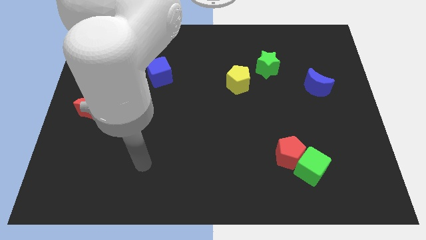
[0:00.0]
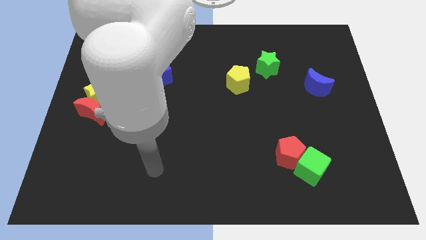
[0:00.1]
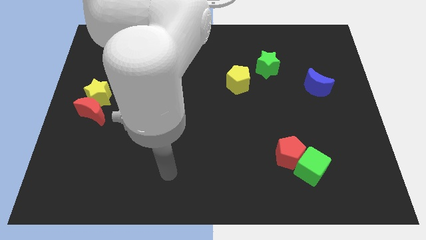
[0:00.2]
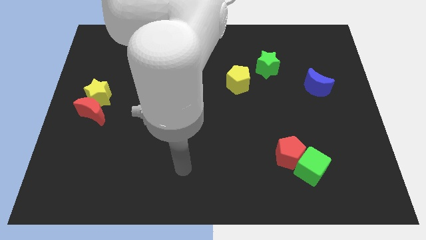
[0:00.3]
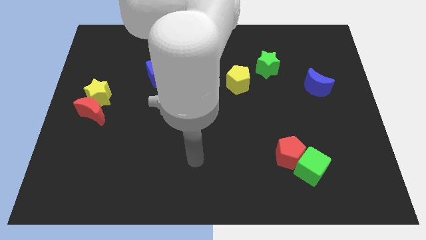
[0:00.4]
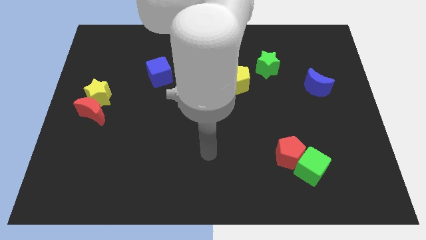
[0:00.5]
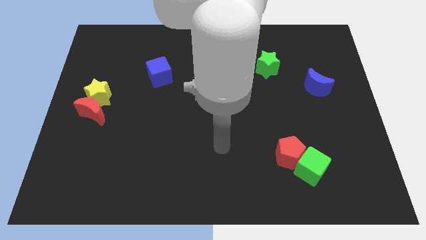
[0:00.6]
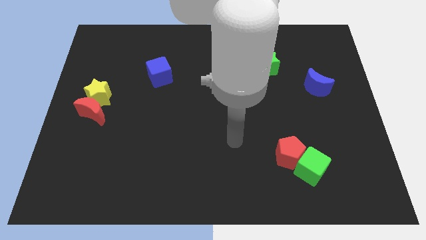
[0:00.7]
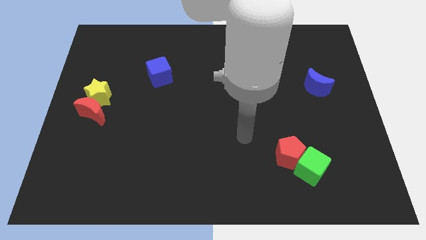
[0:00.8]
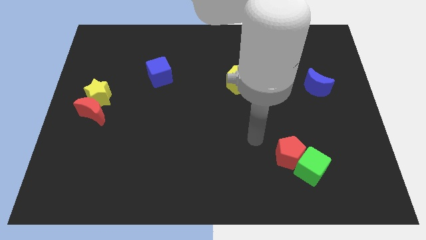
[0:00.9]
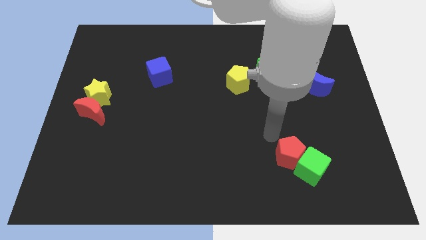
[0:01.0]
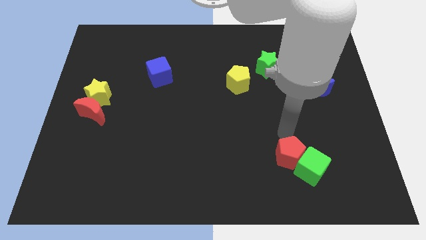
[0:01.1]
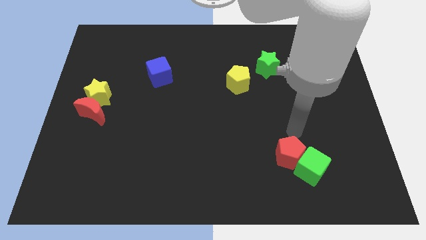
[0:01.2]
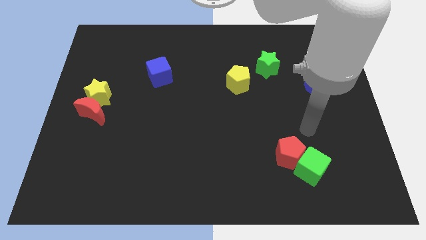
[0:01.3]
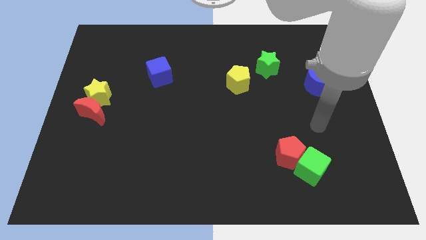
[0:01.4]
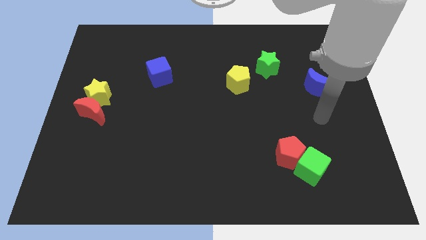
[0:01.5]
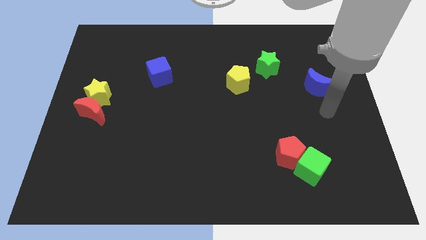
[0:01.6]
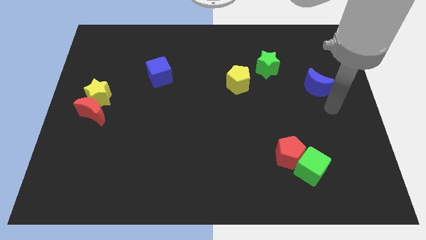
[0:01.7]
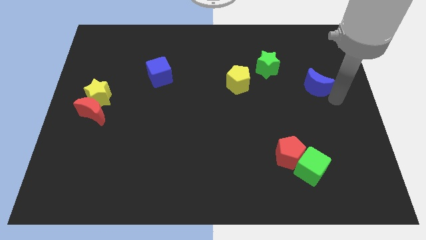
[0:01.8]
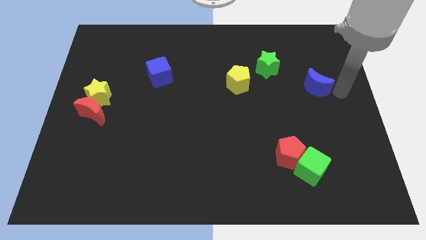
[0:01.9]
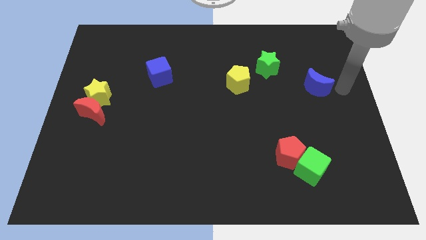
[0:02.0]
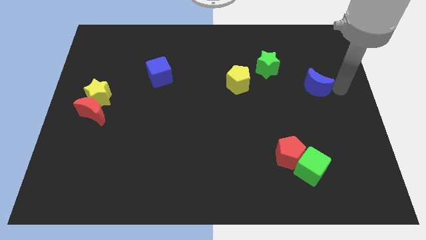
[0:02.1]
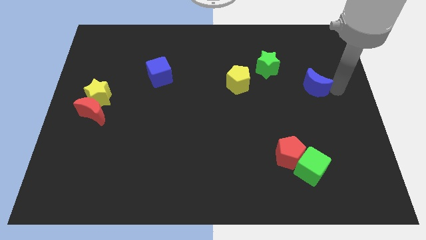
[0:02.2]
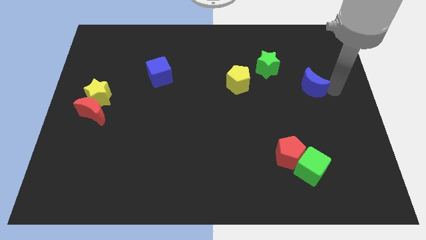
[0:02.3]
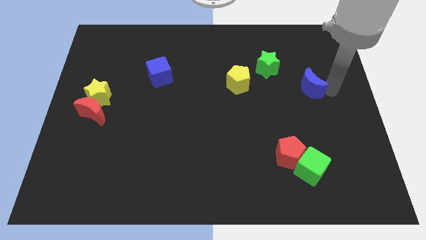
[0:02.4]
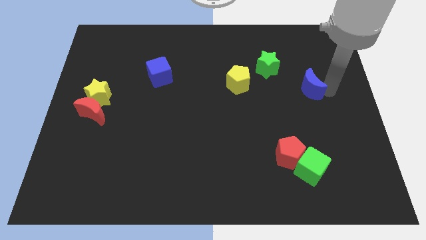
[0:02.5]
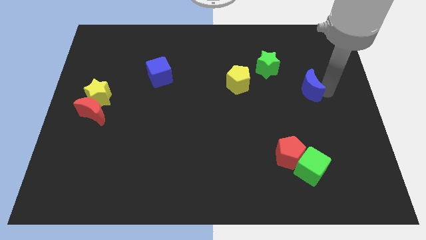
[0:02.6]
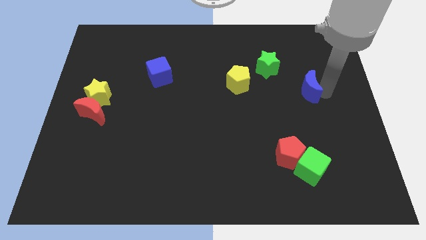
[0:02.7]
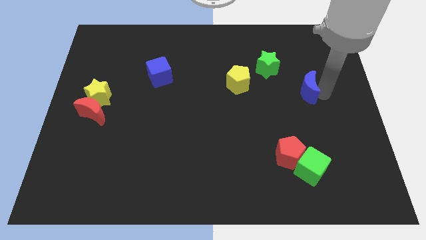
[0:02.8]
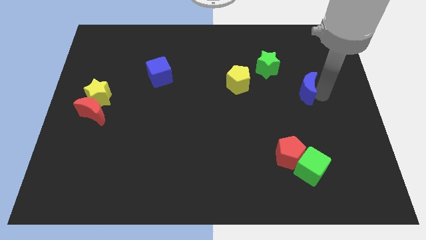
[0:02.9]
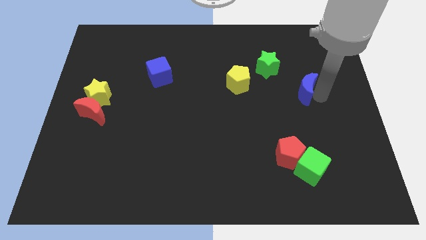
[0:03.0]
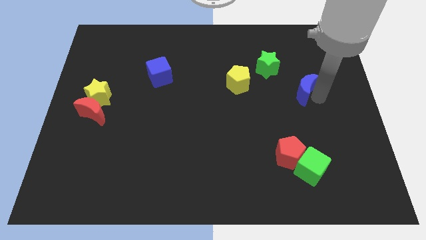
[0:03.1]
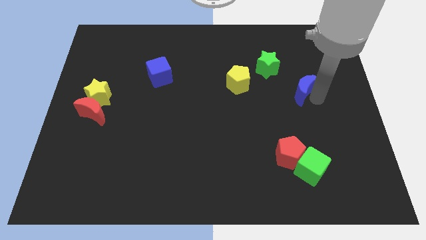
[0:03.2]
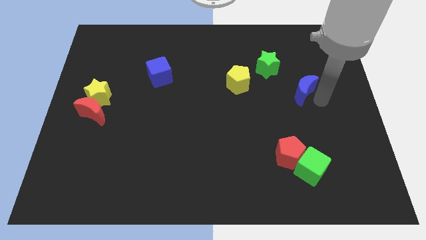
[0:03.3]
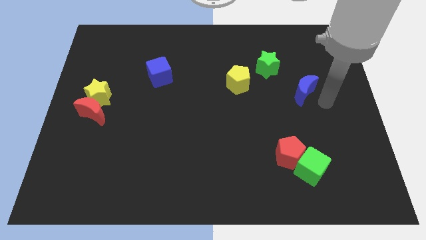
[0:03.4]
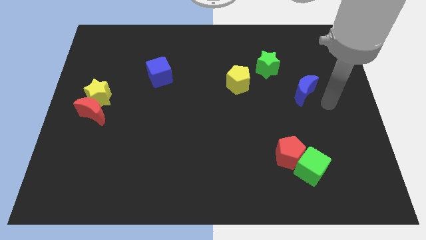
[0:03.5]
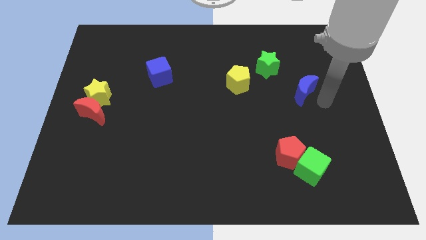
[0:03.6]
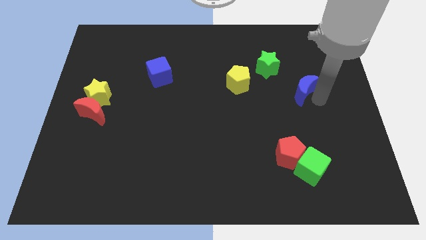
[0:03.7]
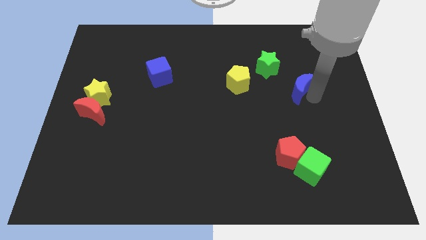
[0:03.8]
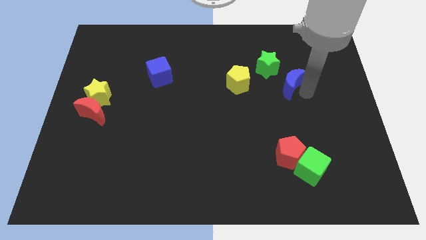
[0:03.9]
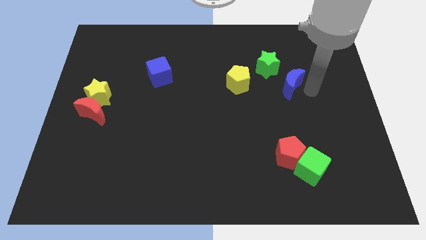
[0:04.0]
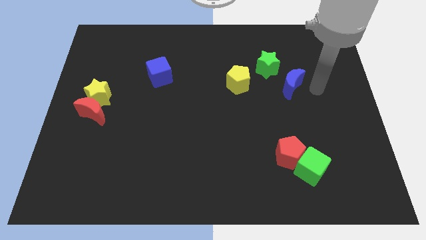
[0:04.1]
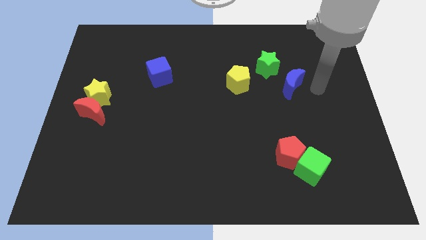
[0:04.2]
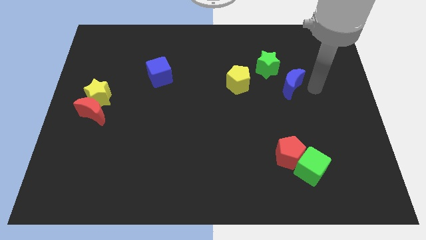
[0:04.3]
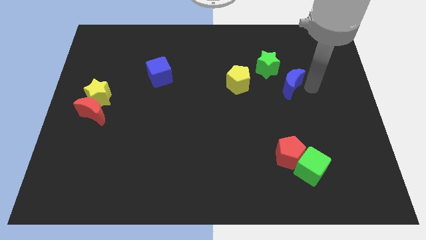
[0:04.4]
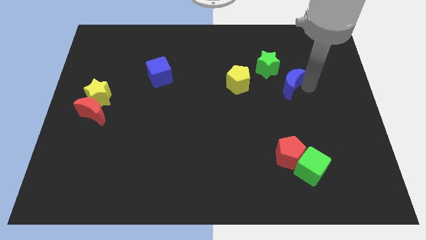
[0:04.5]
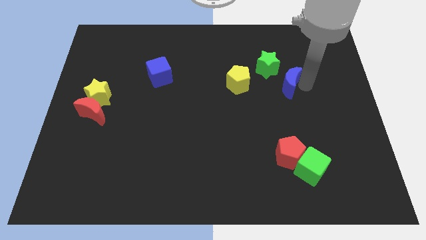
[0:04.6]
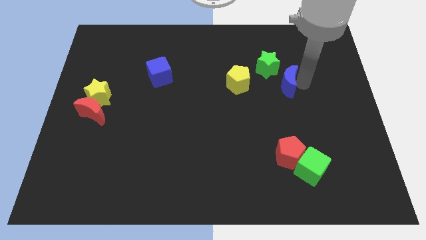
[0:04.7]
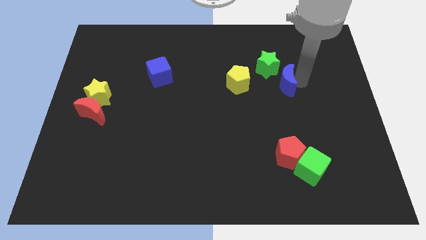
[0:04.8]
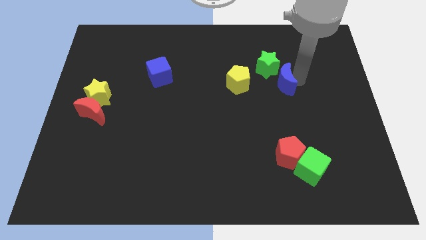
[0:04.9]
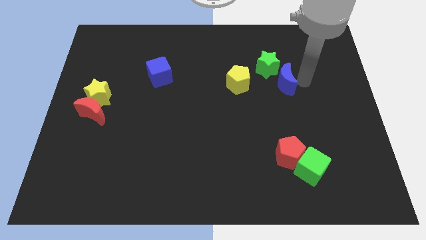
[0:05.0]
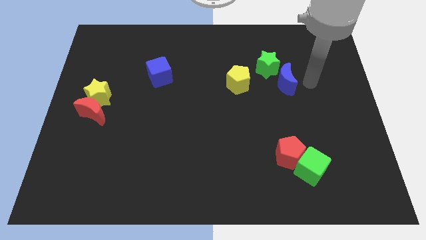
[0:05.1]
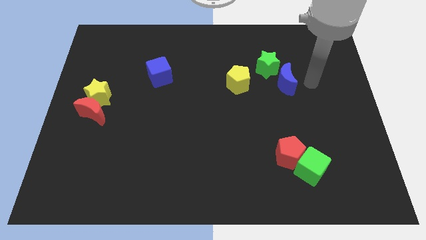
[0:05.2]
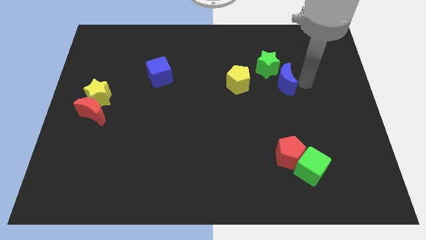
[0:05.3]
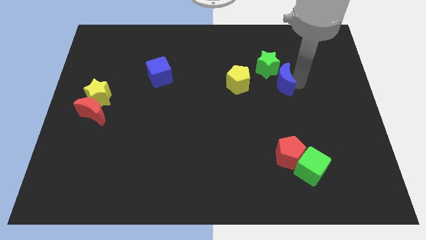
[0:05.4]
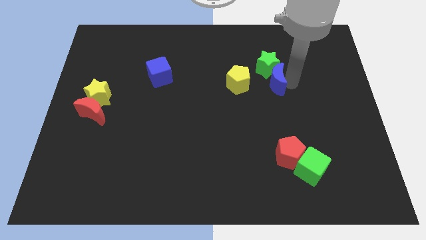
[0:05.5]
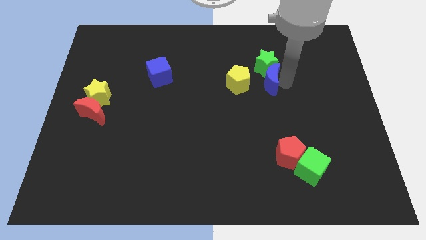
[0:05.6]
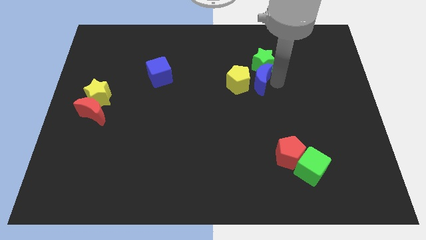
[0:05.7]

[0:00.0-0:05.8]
put the blue moon next to the yellow pentagon

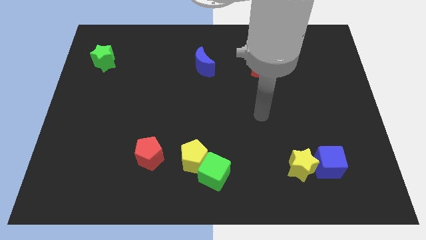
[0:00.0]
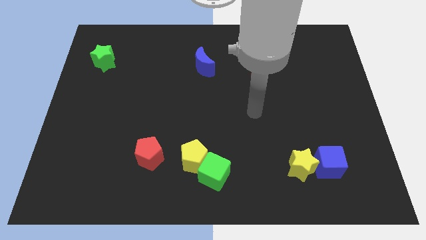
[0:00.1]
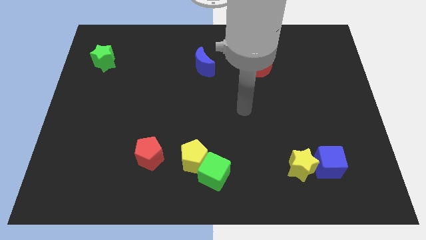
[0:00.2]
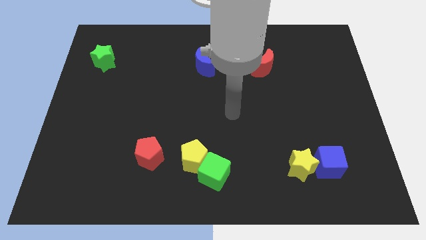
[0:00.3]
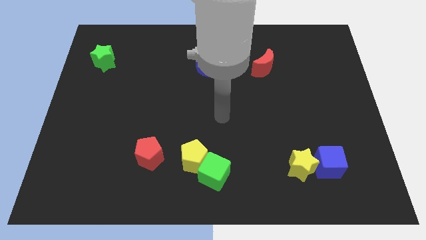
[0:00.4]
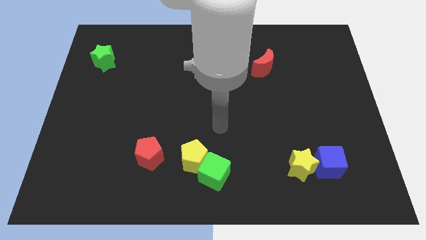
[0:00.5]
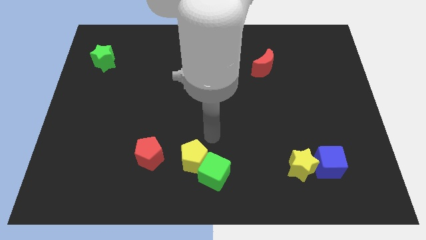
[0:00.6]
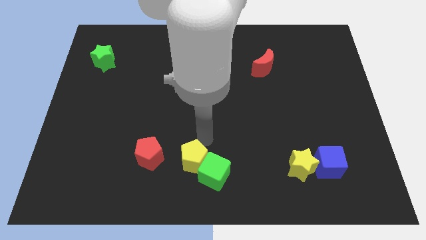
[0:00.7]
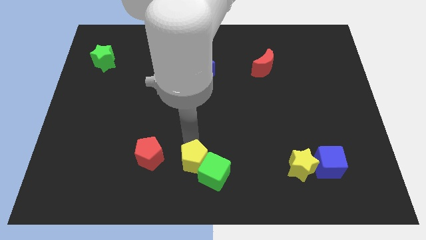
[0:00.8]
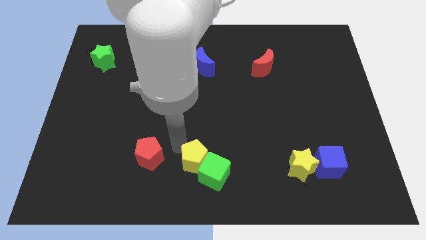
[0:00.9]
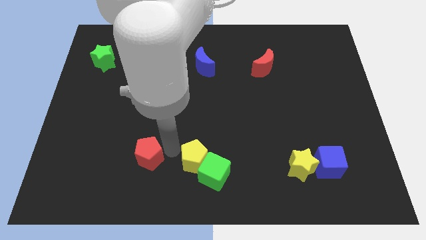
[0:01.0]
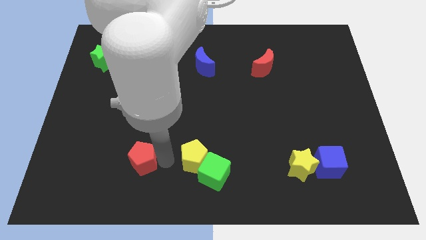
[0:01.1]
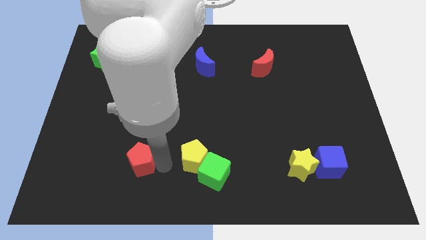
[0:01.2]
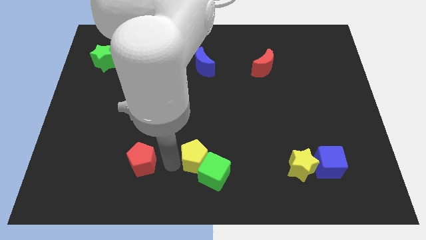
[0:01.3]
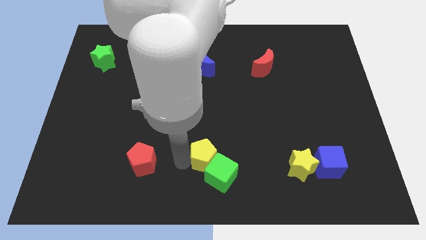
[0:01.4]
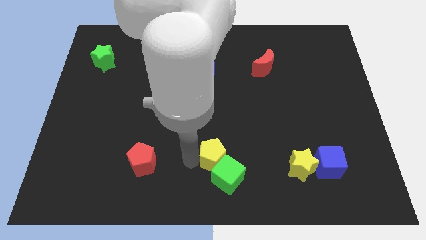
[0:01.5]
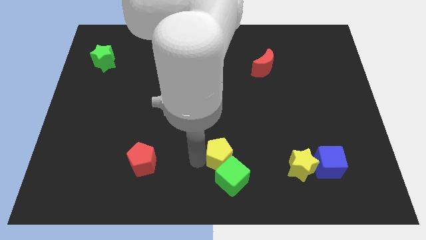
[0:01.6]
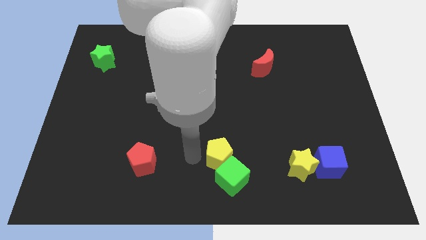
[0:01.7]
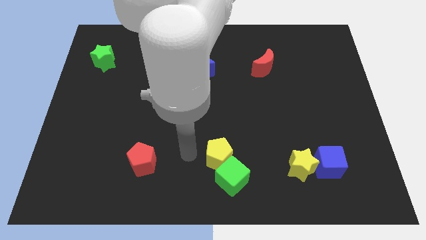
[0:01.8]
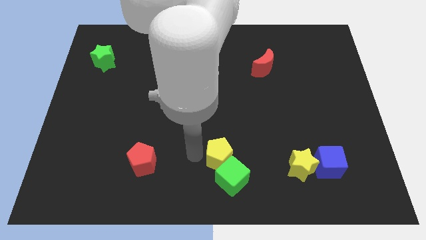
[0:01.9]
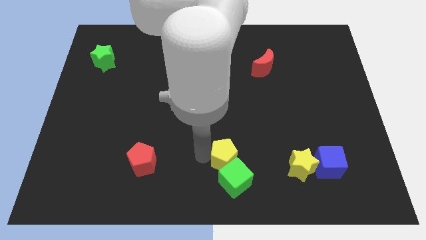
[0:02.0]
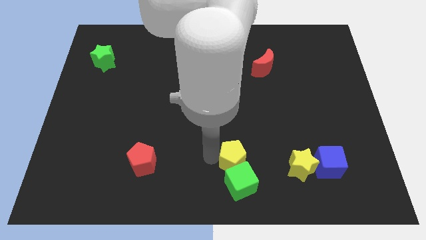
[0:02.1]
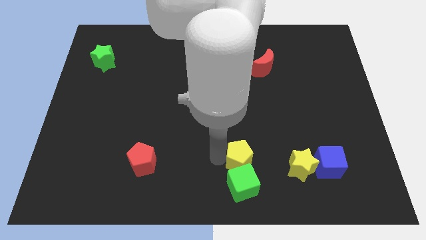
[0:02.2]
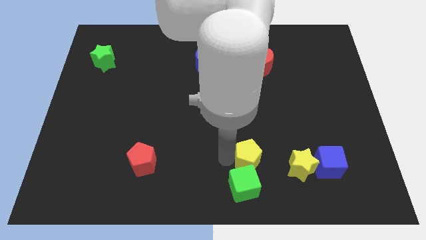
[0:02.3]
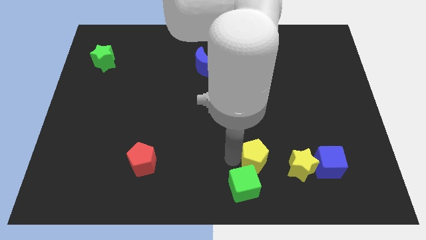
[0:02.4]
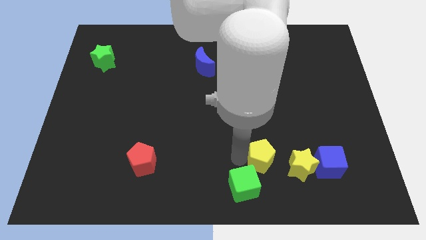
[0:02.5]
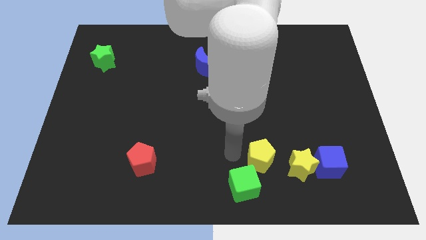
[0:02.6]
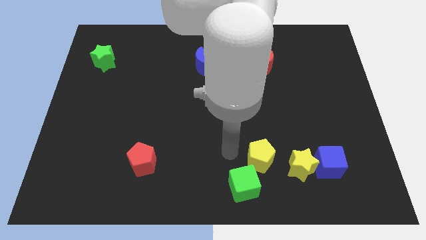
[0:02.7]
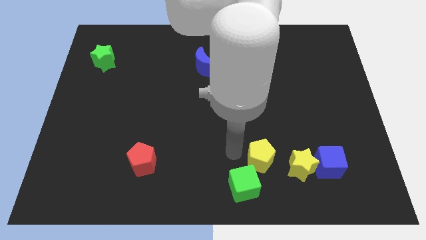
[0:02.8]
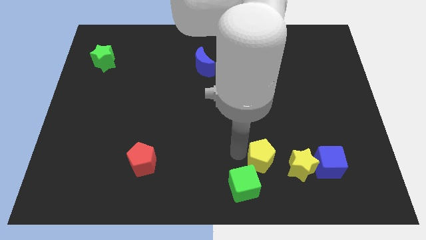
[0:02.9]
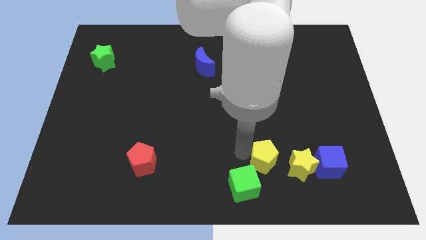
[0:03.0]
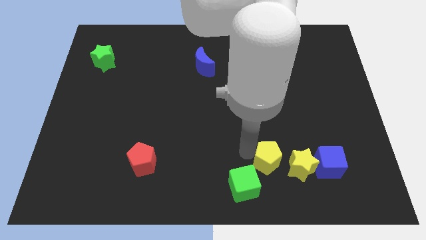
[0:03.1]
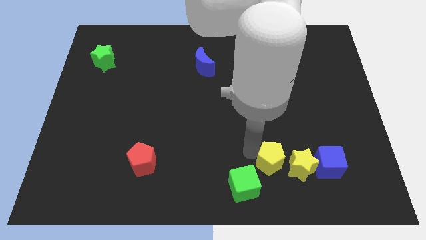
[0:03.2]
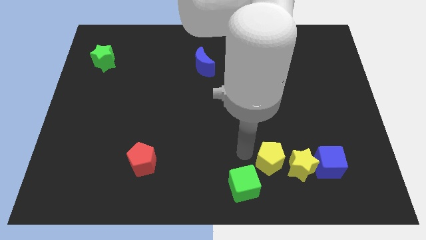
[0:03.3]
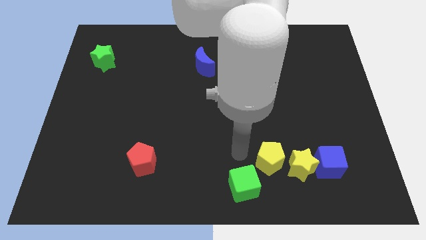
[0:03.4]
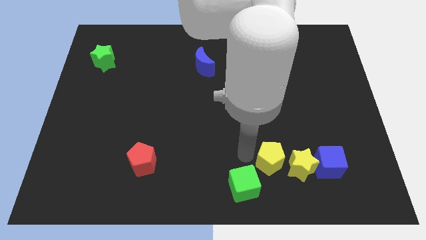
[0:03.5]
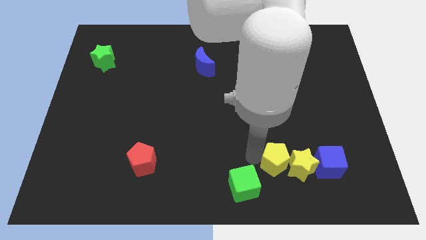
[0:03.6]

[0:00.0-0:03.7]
push the yellow pentagon to the yellow star
